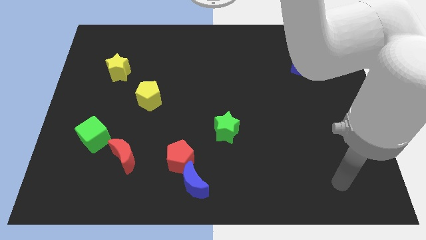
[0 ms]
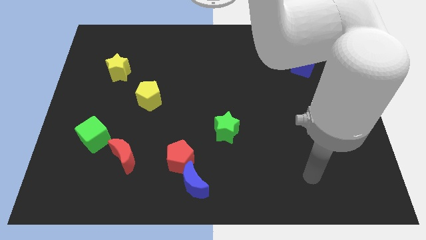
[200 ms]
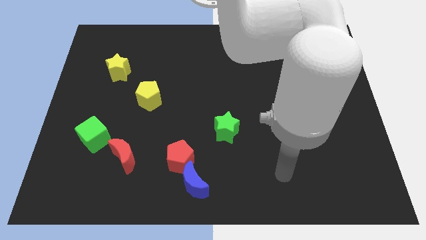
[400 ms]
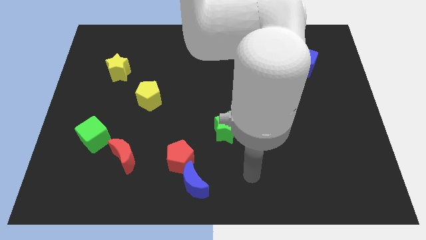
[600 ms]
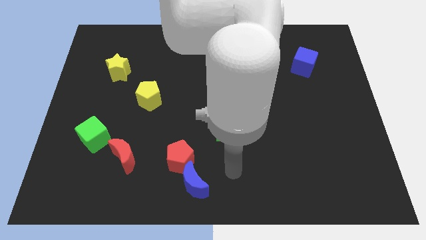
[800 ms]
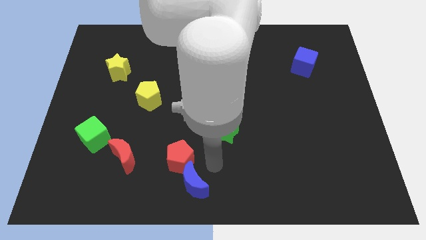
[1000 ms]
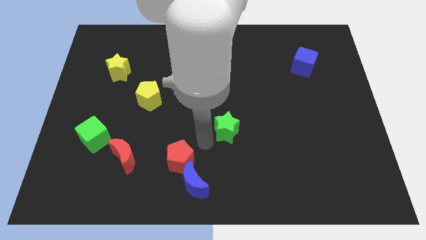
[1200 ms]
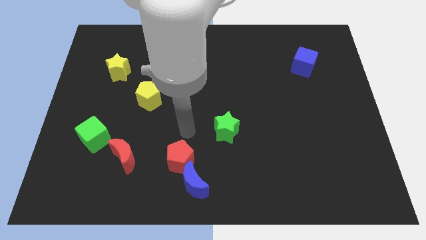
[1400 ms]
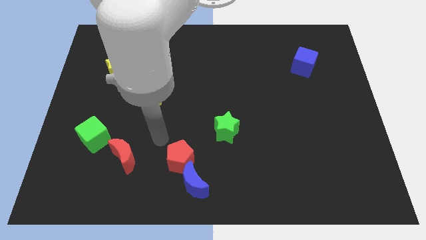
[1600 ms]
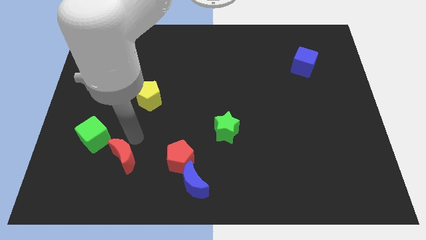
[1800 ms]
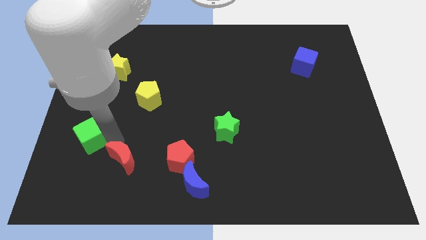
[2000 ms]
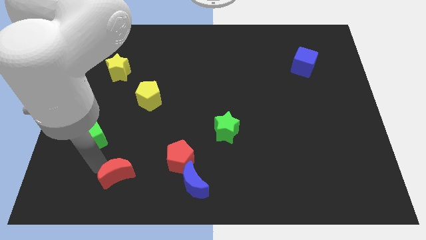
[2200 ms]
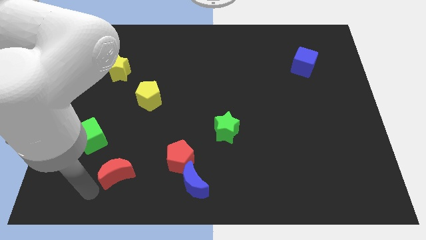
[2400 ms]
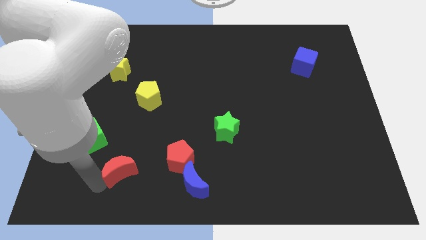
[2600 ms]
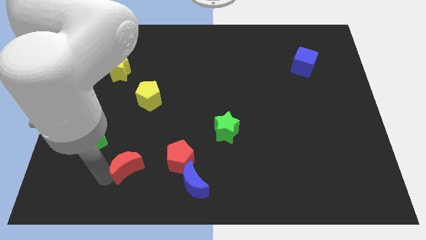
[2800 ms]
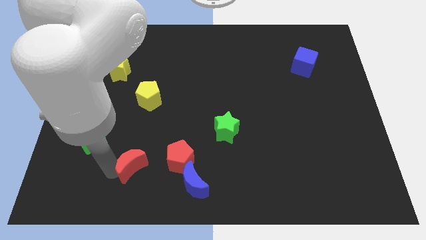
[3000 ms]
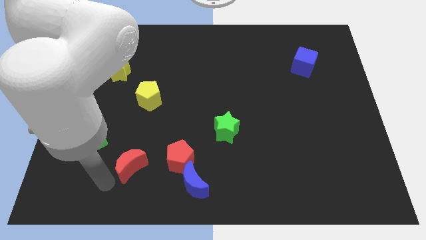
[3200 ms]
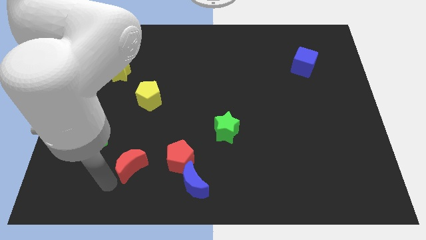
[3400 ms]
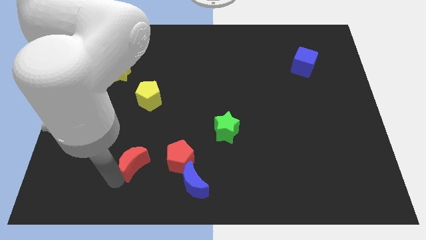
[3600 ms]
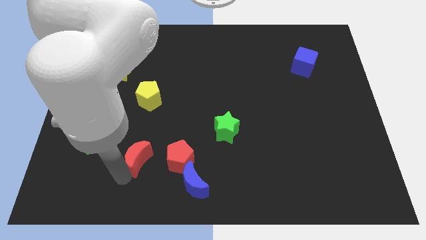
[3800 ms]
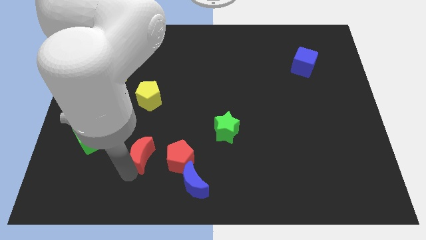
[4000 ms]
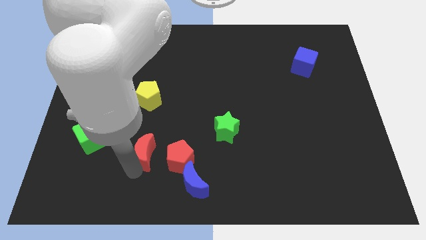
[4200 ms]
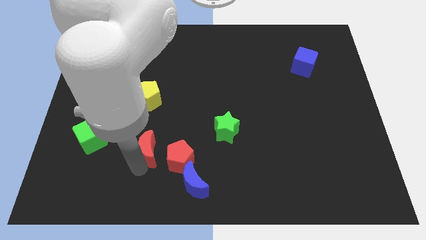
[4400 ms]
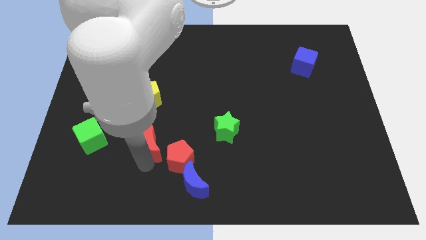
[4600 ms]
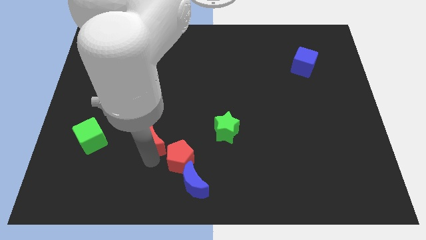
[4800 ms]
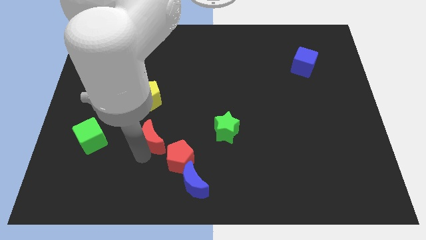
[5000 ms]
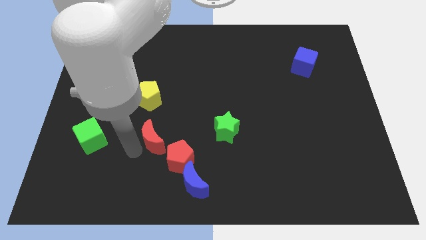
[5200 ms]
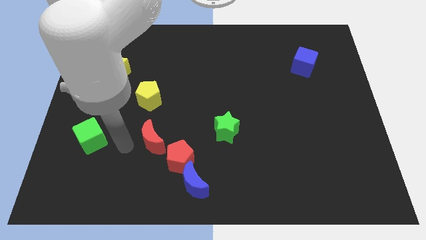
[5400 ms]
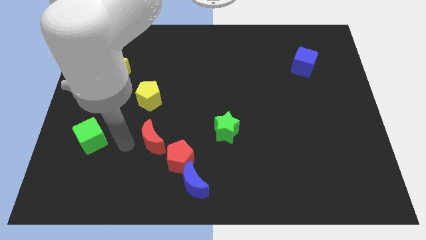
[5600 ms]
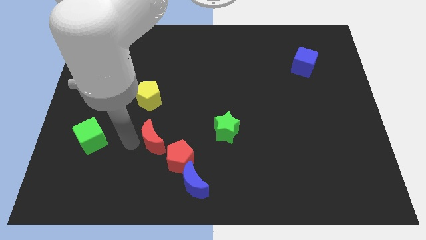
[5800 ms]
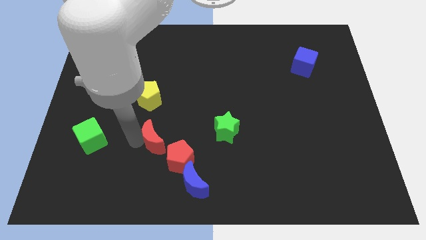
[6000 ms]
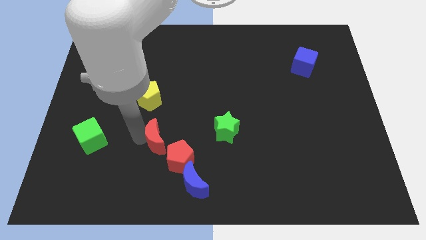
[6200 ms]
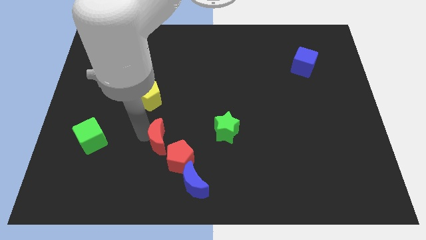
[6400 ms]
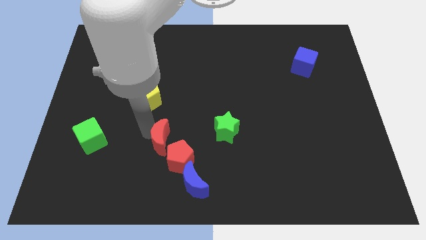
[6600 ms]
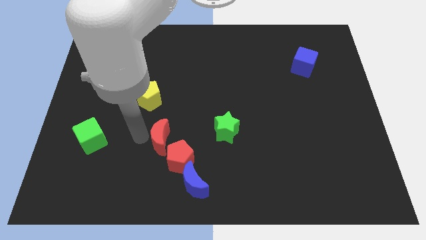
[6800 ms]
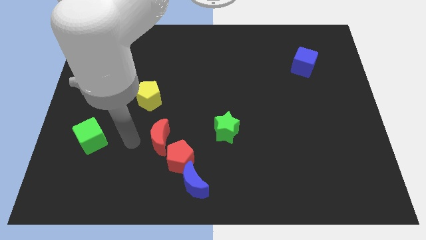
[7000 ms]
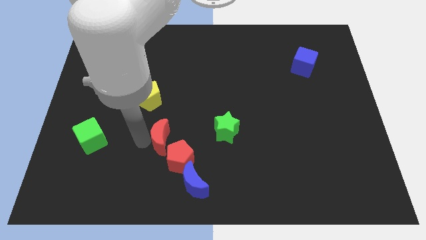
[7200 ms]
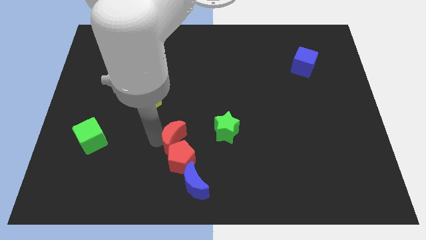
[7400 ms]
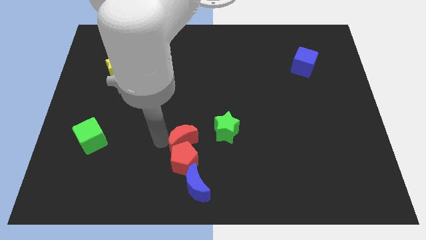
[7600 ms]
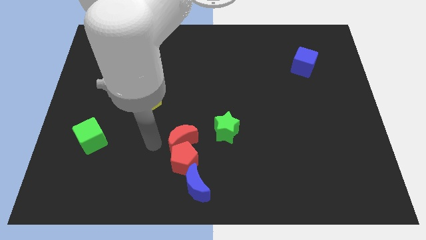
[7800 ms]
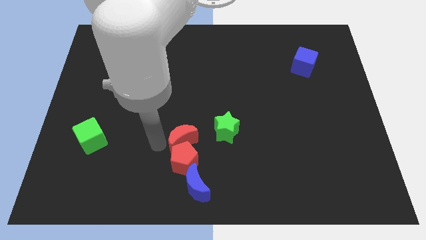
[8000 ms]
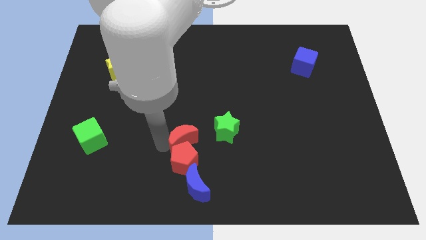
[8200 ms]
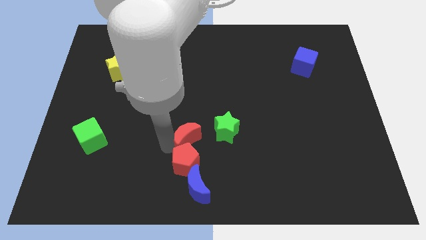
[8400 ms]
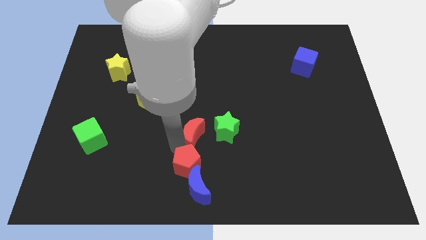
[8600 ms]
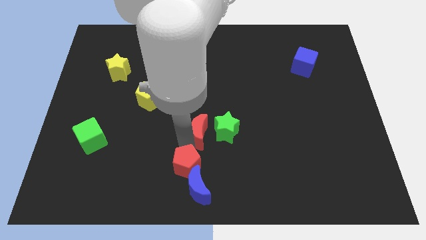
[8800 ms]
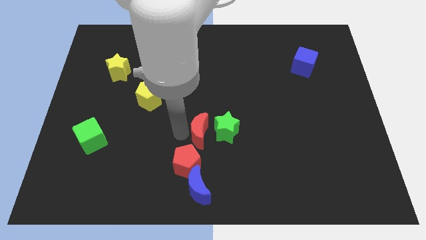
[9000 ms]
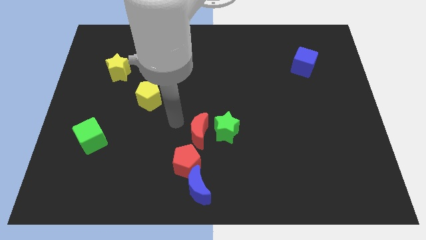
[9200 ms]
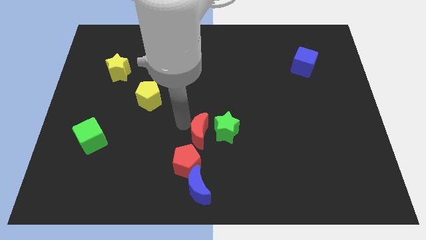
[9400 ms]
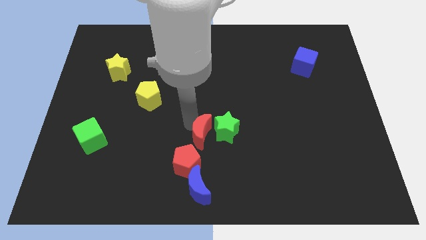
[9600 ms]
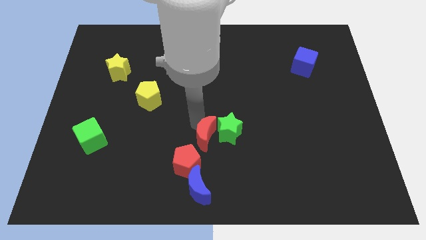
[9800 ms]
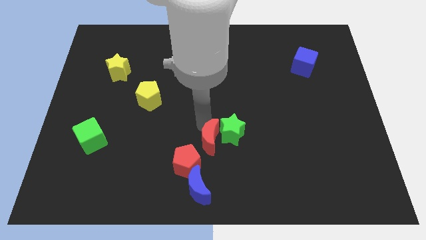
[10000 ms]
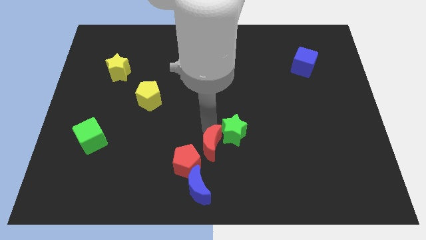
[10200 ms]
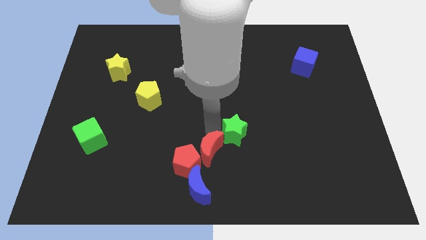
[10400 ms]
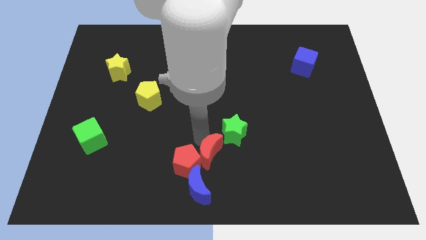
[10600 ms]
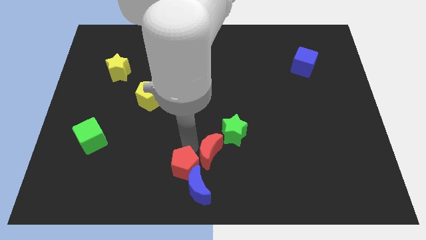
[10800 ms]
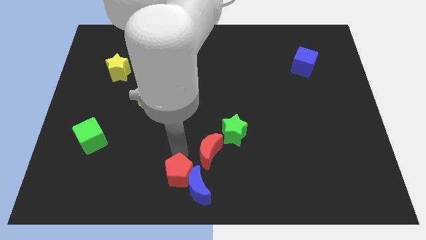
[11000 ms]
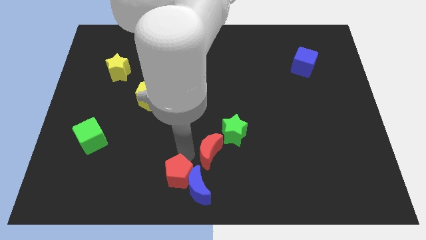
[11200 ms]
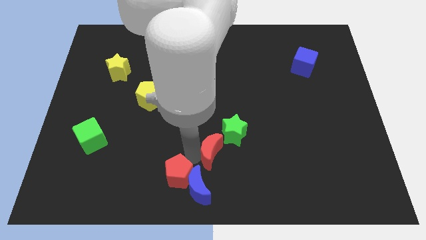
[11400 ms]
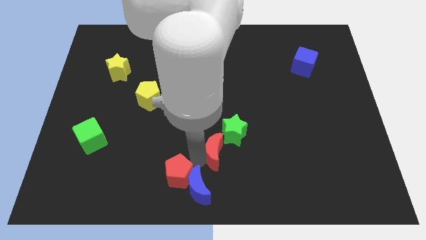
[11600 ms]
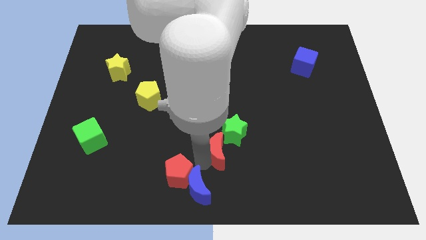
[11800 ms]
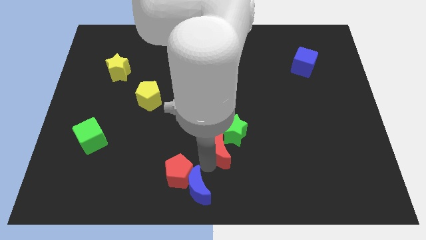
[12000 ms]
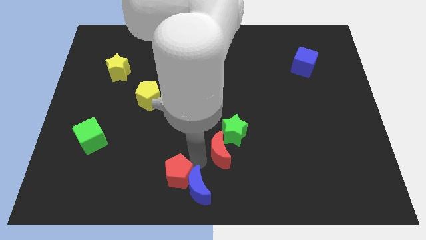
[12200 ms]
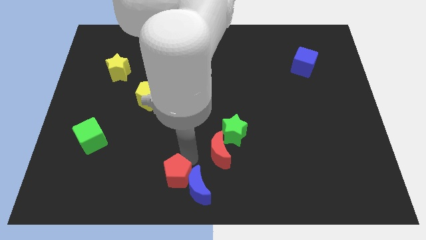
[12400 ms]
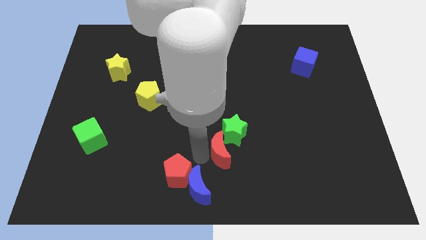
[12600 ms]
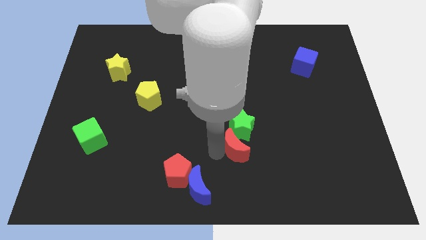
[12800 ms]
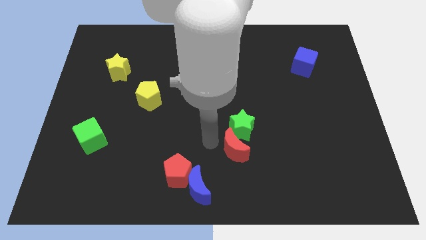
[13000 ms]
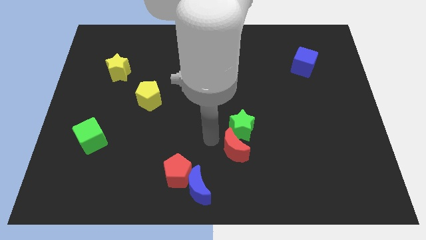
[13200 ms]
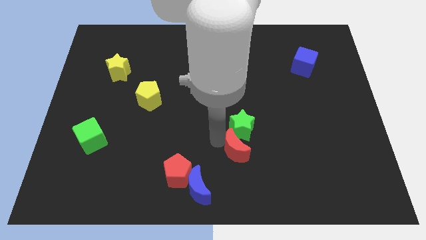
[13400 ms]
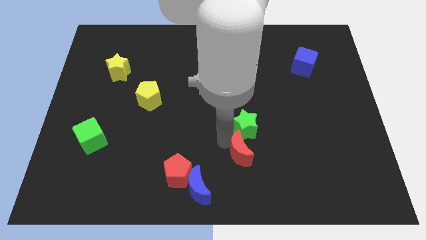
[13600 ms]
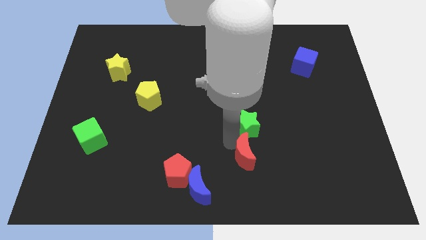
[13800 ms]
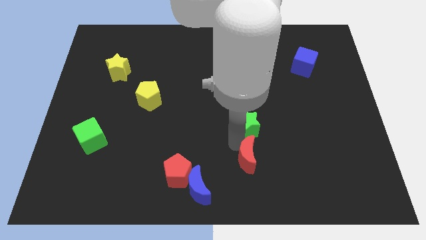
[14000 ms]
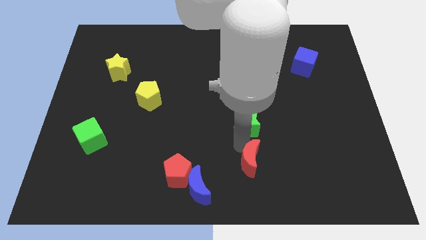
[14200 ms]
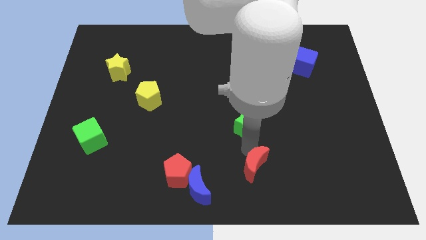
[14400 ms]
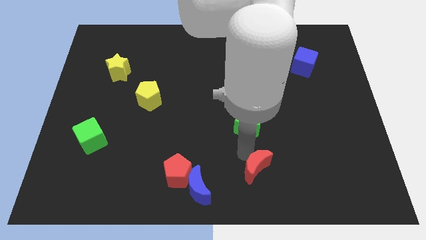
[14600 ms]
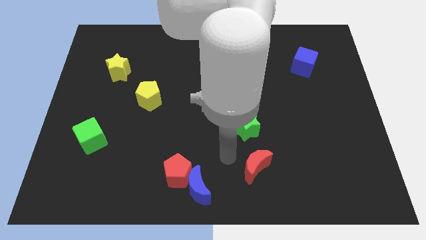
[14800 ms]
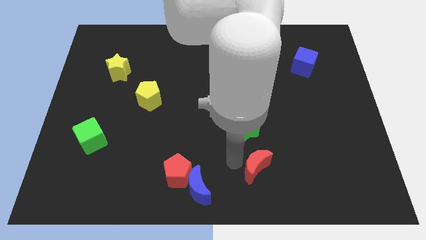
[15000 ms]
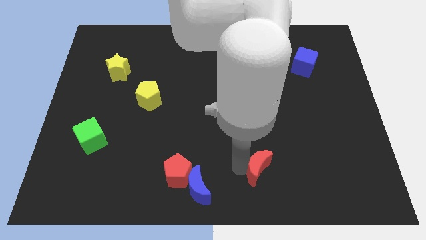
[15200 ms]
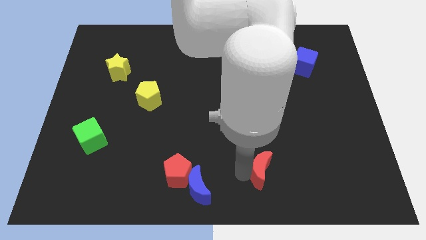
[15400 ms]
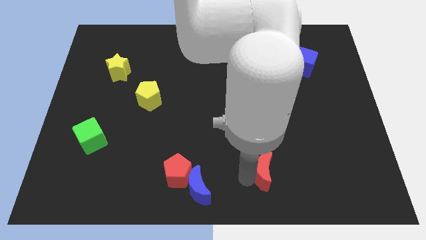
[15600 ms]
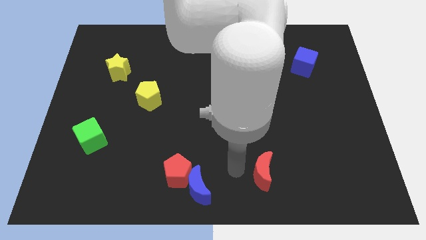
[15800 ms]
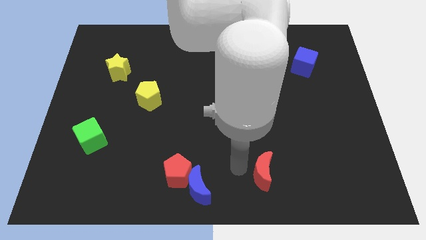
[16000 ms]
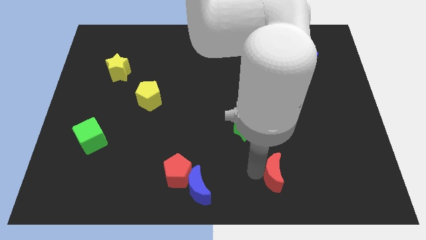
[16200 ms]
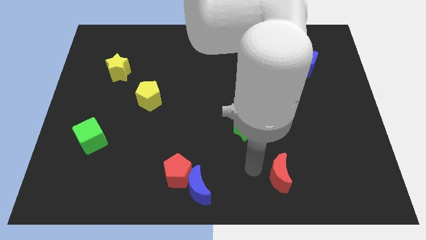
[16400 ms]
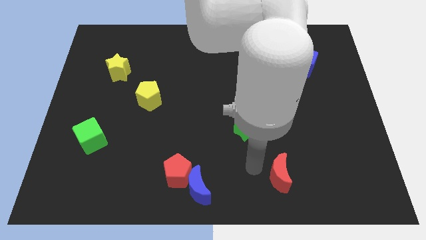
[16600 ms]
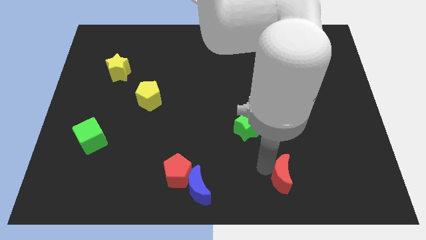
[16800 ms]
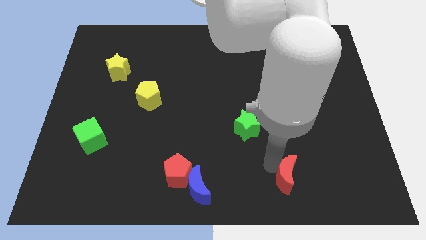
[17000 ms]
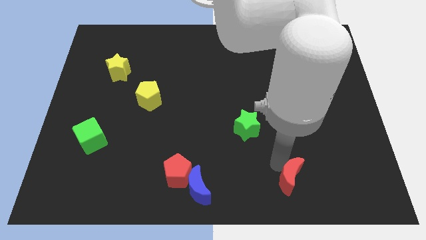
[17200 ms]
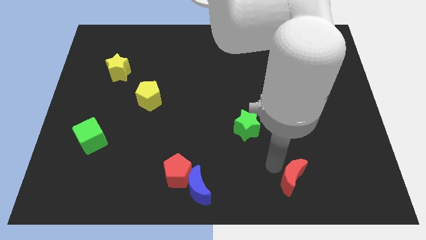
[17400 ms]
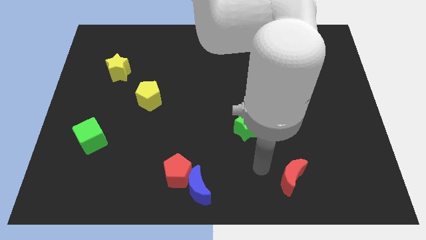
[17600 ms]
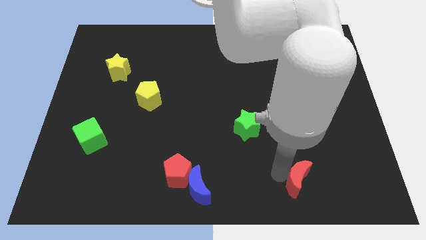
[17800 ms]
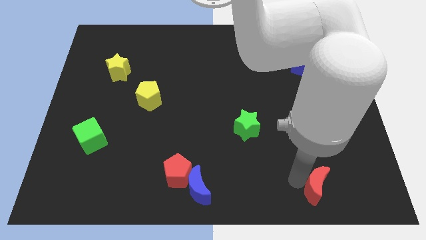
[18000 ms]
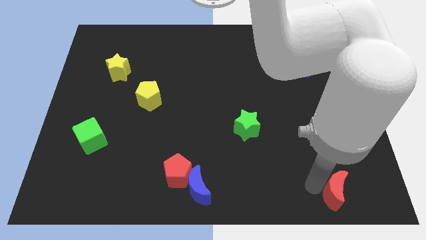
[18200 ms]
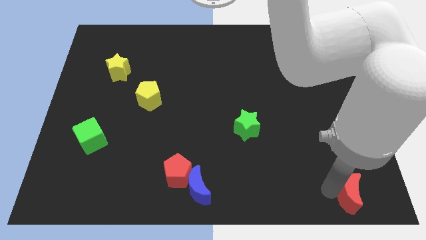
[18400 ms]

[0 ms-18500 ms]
slide the red moon to the lower right corner
